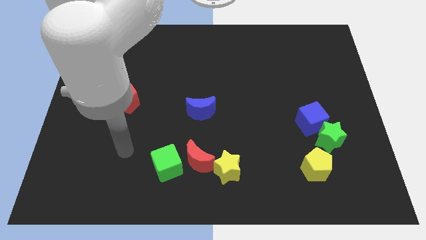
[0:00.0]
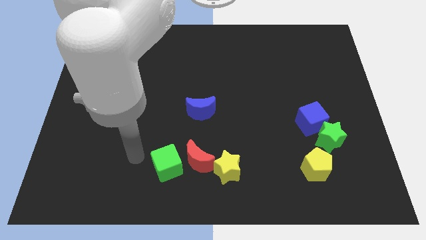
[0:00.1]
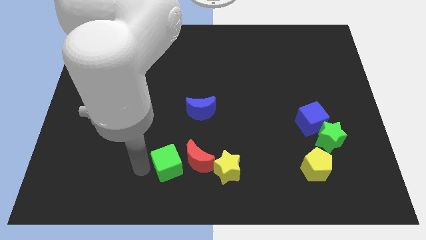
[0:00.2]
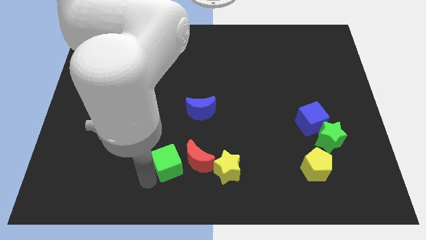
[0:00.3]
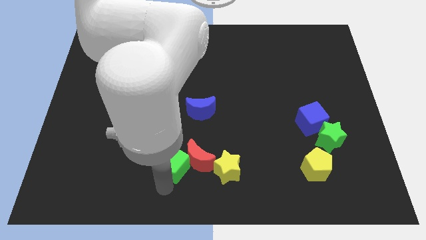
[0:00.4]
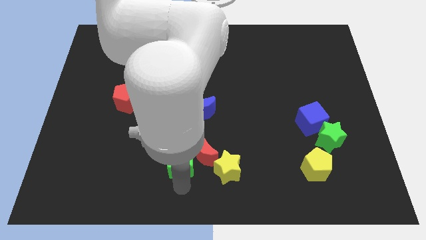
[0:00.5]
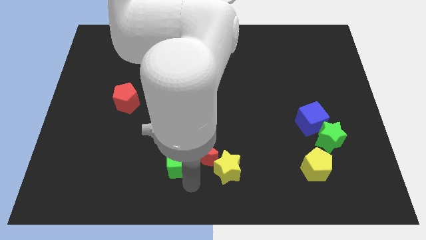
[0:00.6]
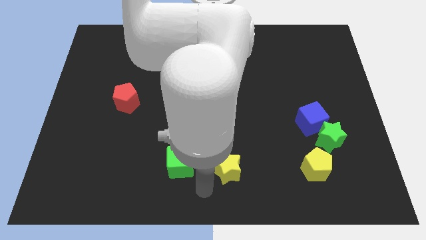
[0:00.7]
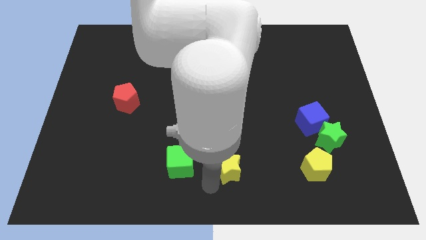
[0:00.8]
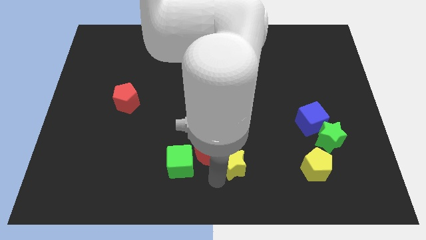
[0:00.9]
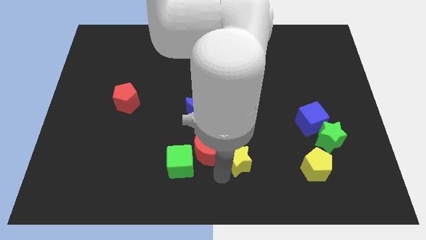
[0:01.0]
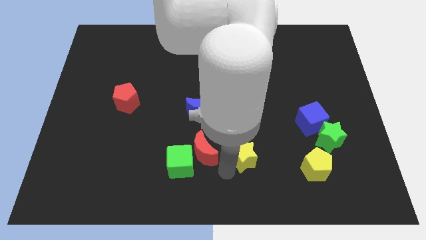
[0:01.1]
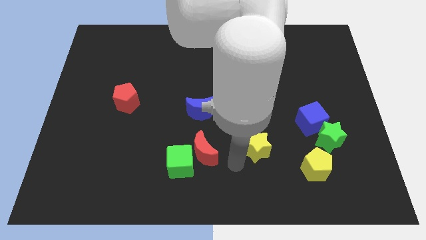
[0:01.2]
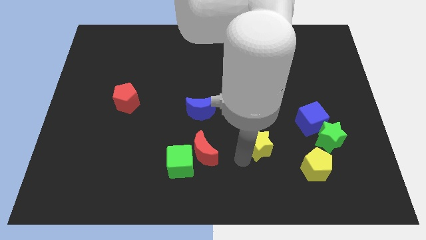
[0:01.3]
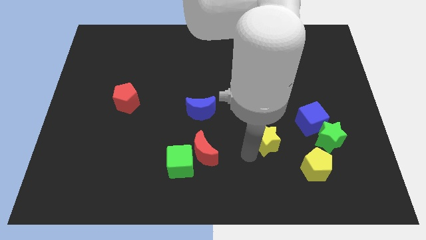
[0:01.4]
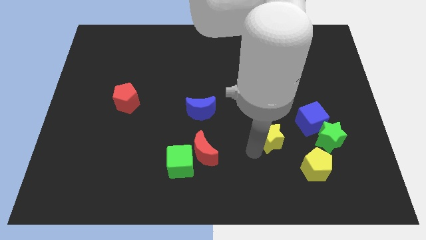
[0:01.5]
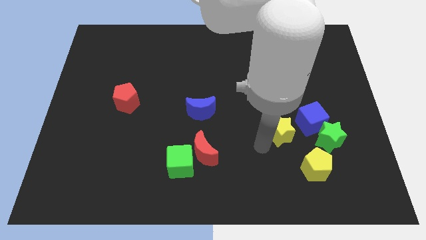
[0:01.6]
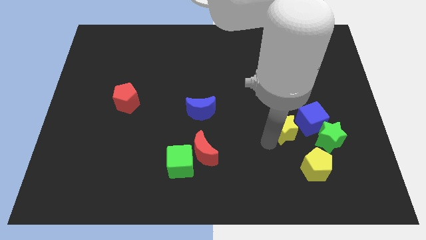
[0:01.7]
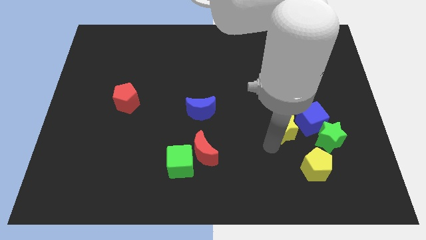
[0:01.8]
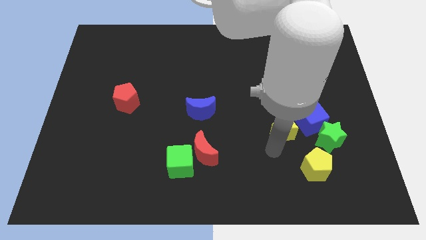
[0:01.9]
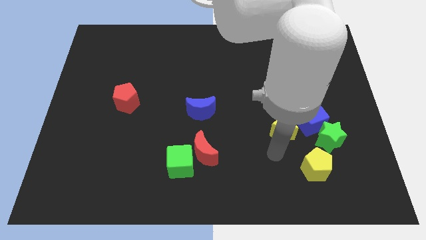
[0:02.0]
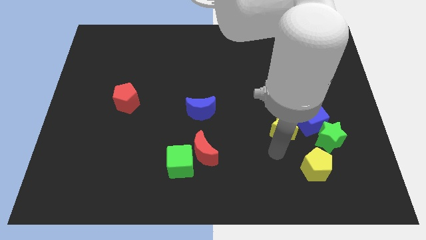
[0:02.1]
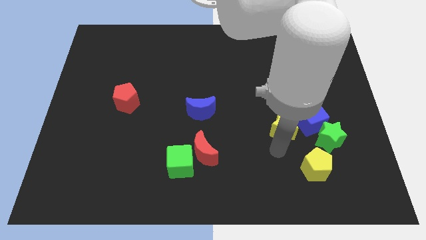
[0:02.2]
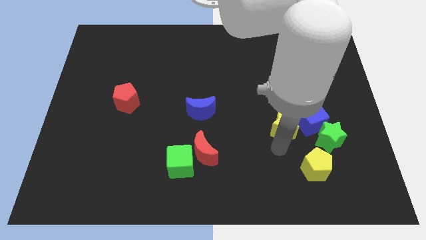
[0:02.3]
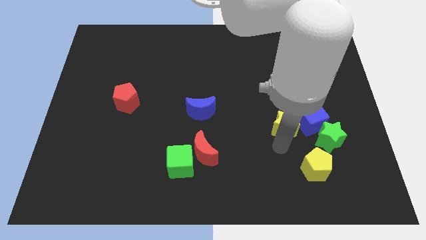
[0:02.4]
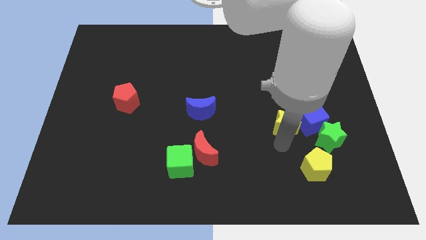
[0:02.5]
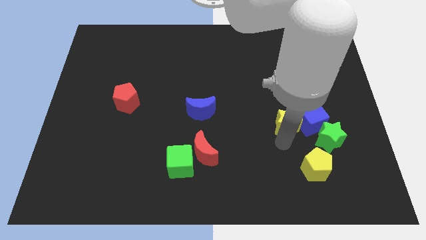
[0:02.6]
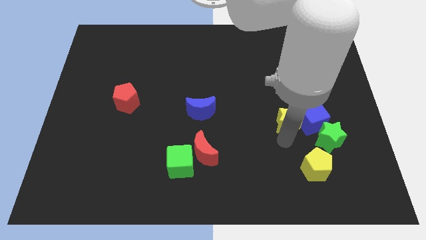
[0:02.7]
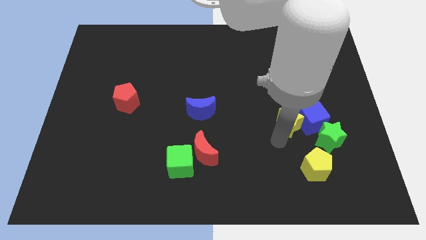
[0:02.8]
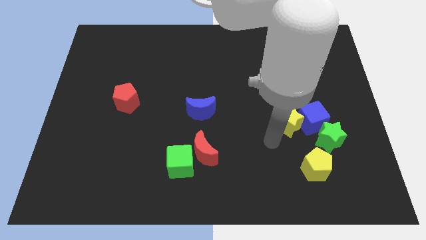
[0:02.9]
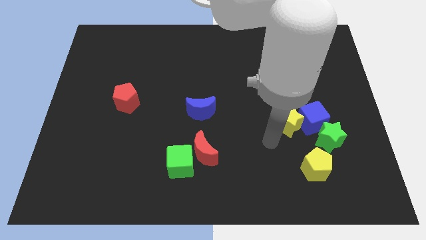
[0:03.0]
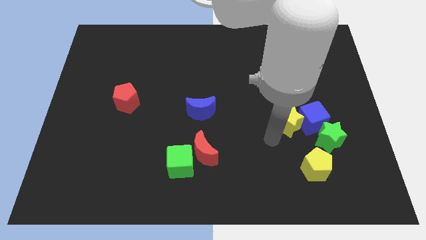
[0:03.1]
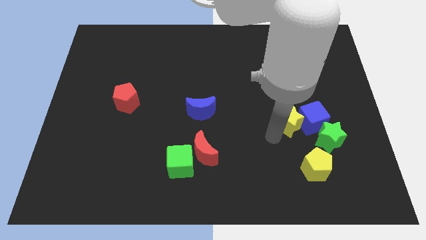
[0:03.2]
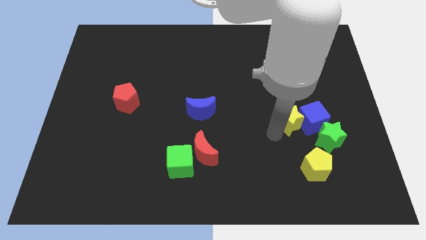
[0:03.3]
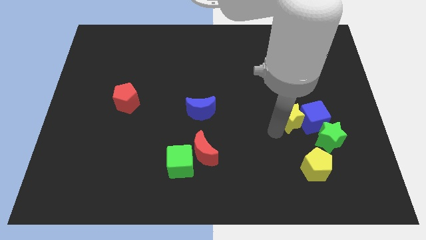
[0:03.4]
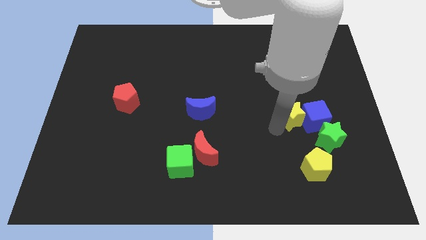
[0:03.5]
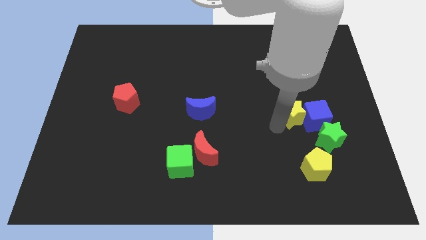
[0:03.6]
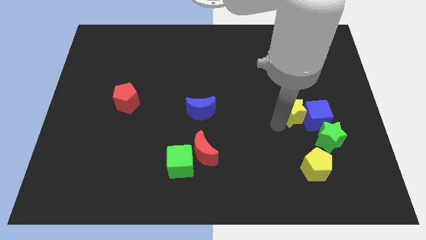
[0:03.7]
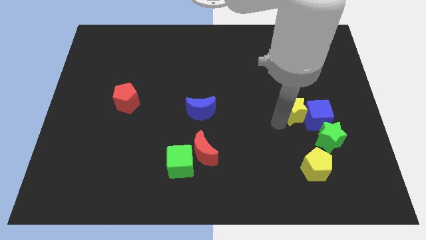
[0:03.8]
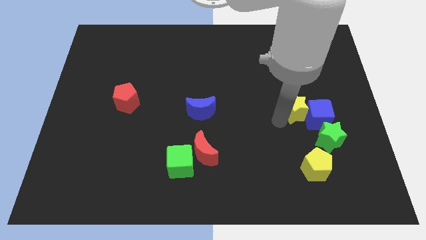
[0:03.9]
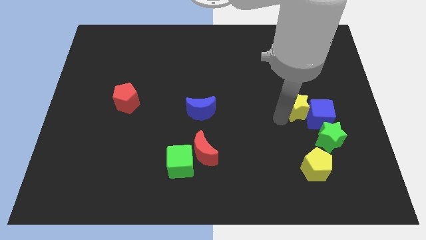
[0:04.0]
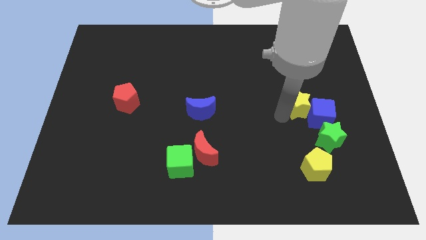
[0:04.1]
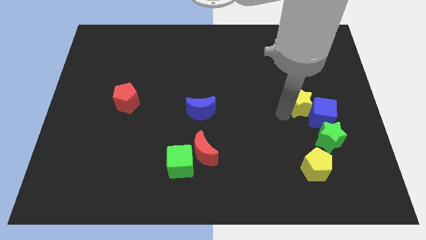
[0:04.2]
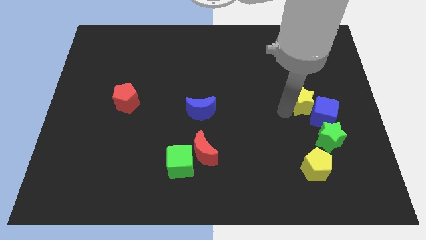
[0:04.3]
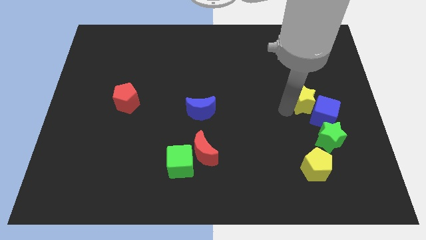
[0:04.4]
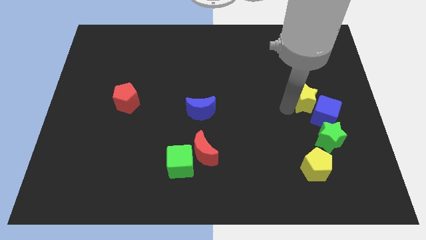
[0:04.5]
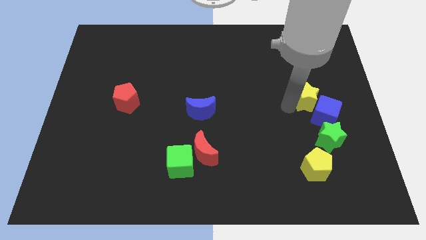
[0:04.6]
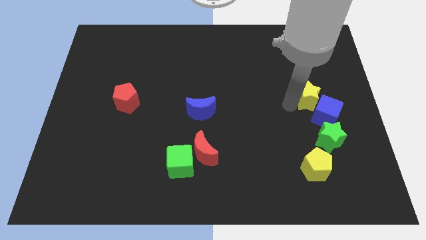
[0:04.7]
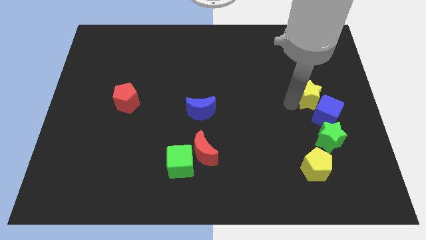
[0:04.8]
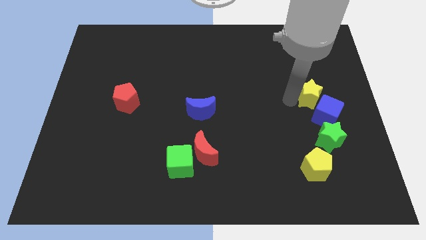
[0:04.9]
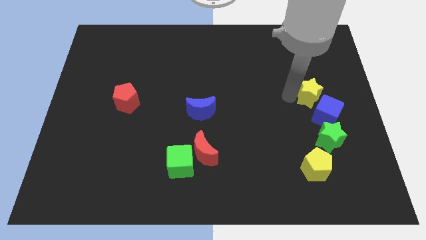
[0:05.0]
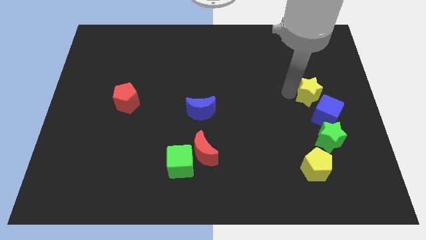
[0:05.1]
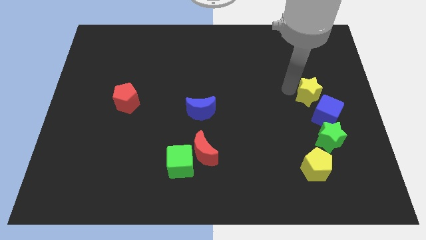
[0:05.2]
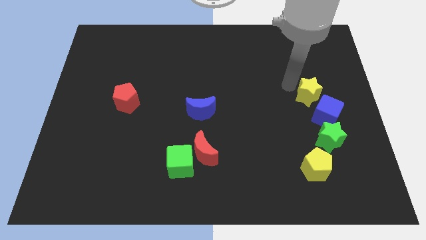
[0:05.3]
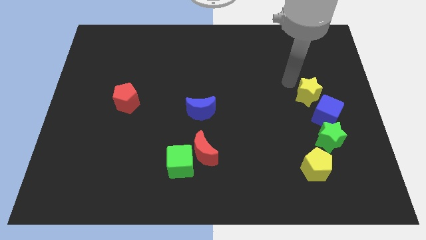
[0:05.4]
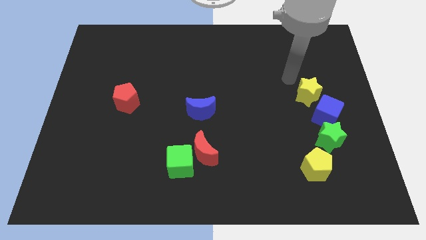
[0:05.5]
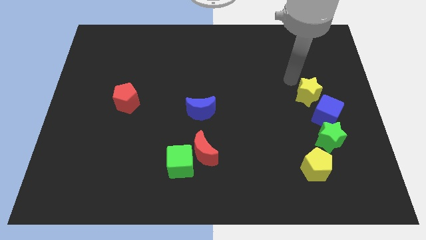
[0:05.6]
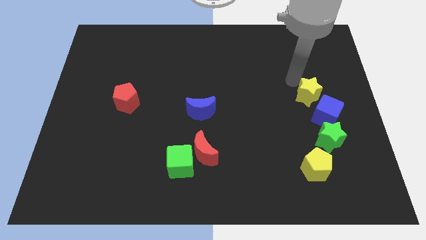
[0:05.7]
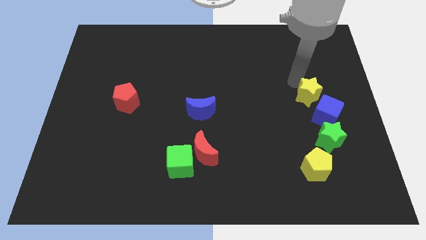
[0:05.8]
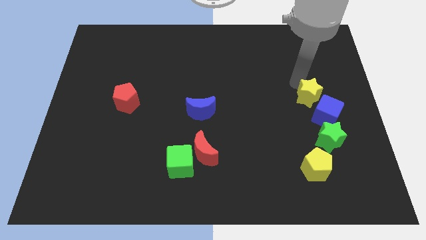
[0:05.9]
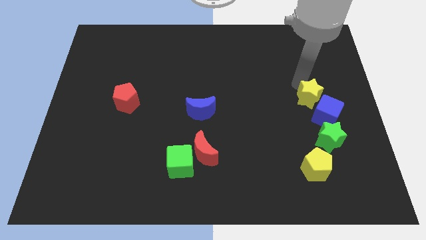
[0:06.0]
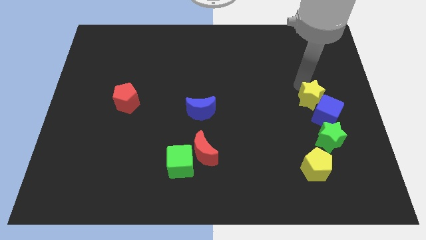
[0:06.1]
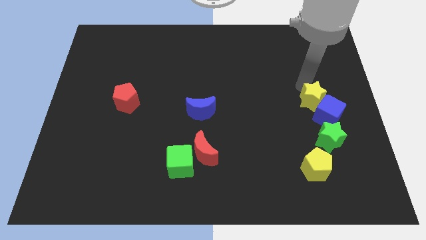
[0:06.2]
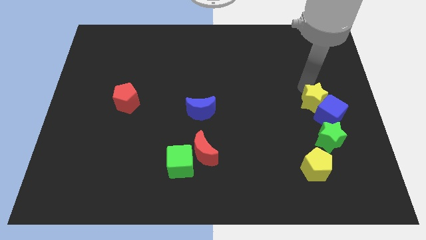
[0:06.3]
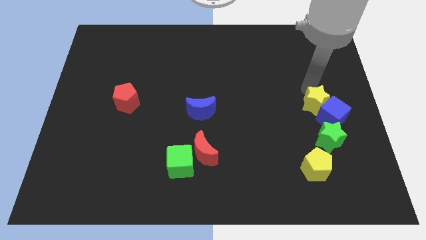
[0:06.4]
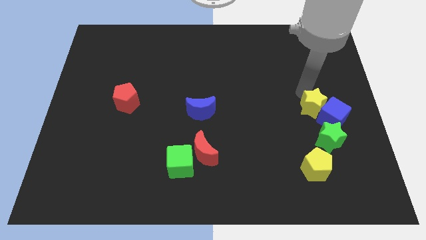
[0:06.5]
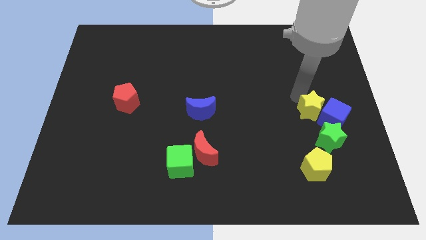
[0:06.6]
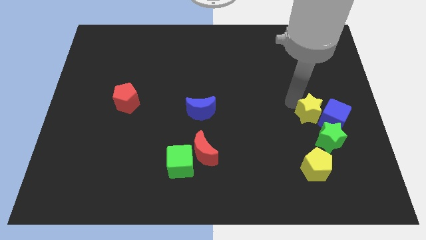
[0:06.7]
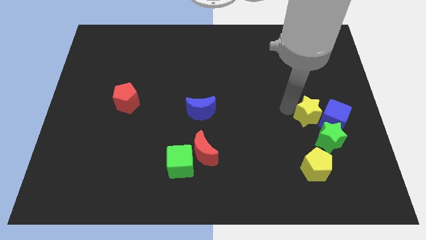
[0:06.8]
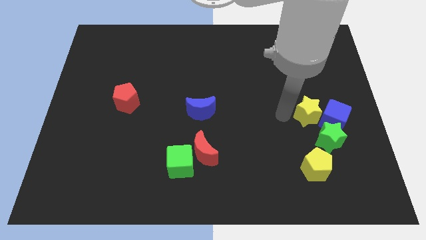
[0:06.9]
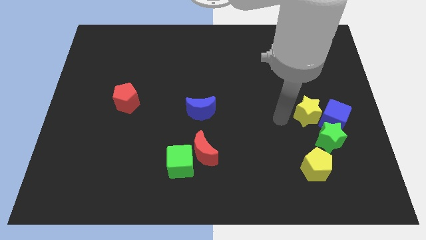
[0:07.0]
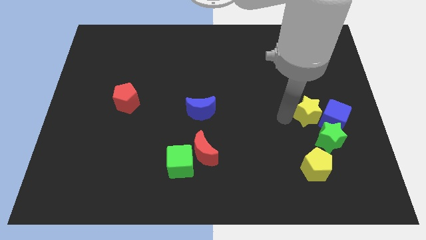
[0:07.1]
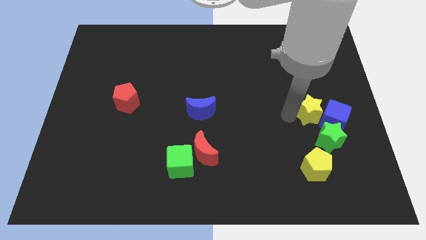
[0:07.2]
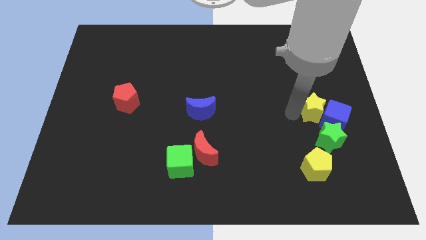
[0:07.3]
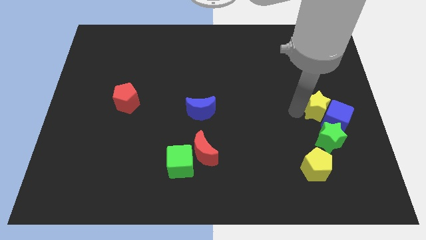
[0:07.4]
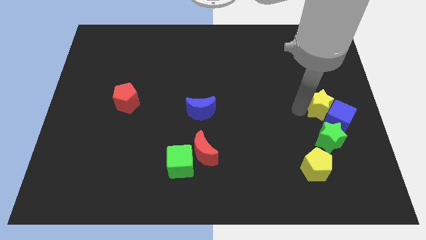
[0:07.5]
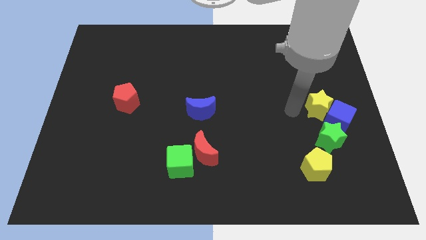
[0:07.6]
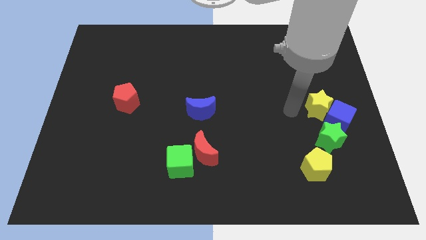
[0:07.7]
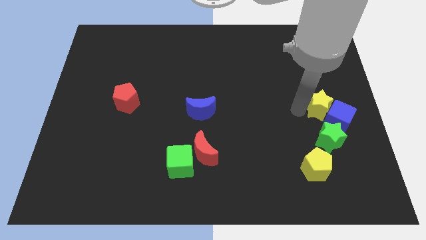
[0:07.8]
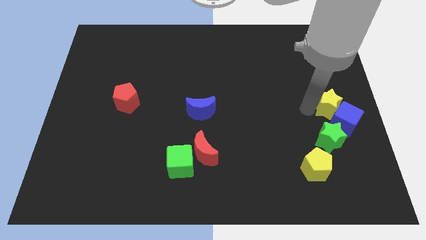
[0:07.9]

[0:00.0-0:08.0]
slide the yellow star to the center right
